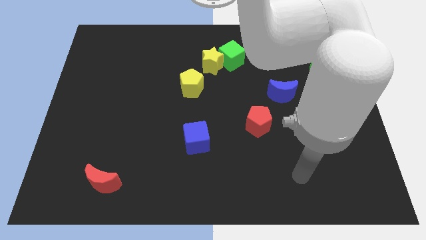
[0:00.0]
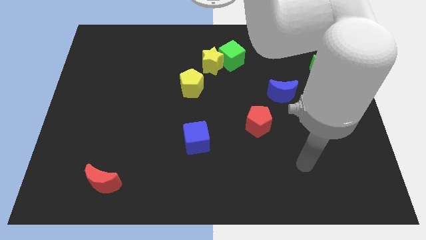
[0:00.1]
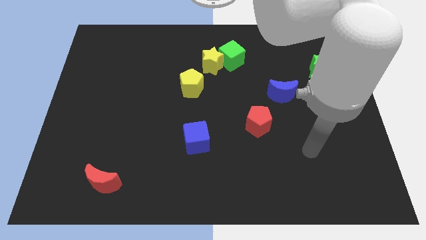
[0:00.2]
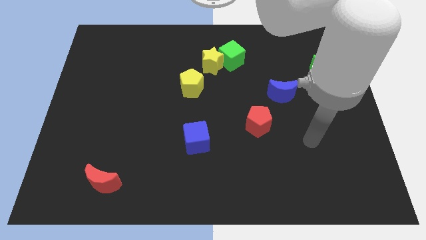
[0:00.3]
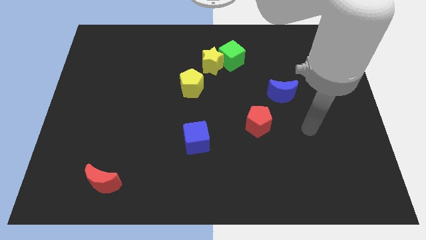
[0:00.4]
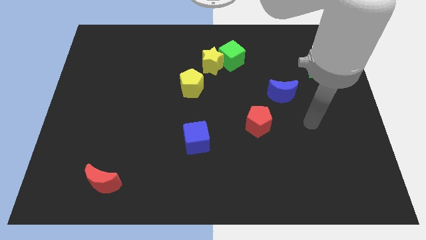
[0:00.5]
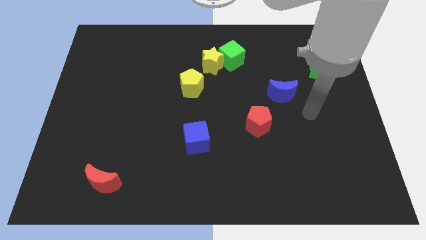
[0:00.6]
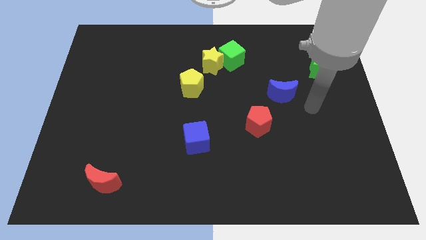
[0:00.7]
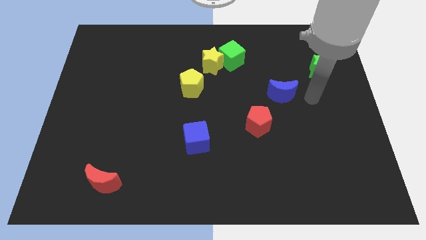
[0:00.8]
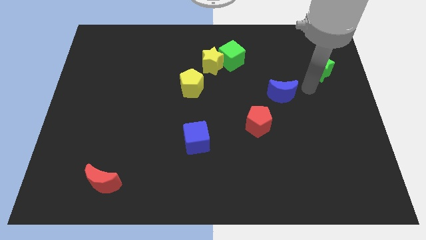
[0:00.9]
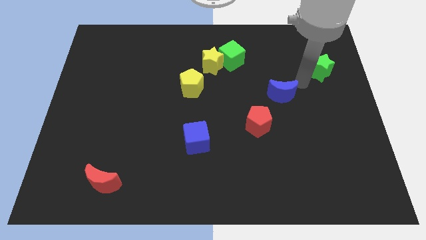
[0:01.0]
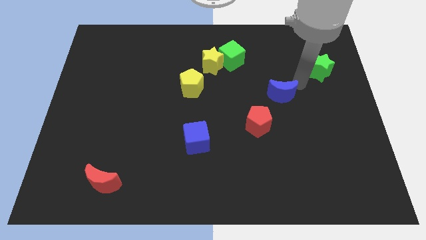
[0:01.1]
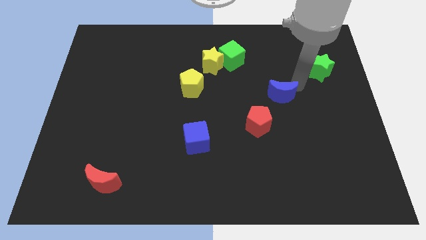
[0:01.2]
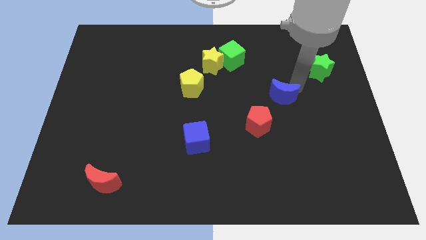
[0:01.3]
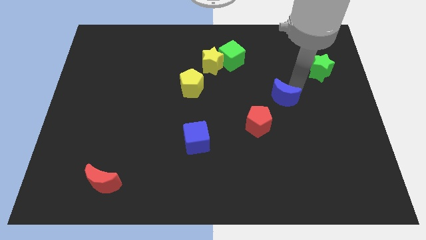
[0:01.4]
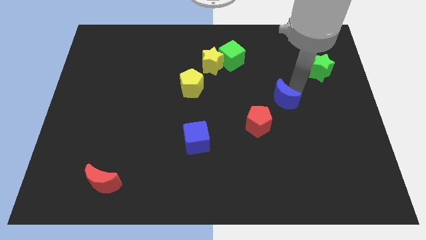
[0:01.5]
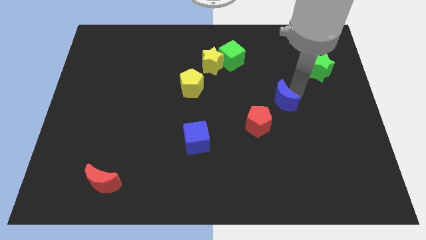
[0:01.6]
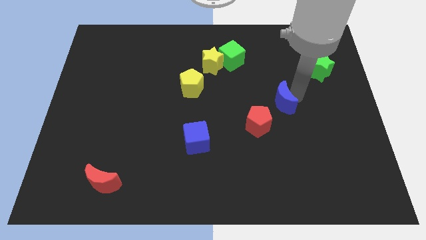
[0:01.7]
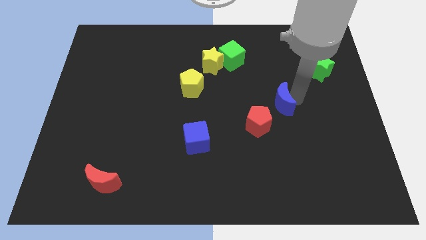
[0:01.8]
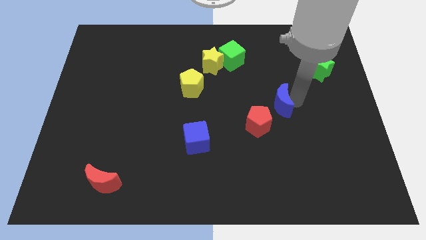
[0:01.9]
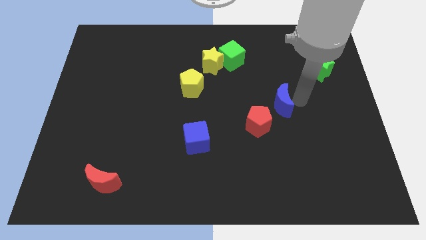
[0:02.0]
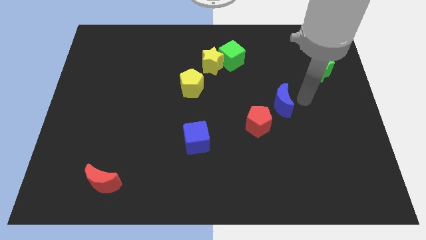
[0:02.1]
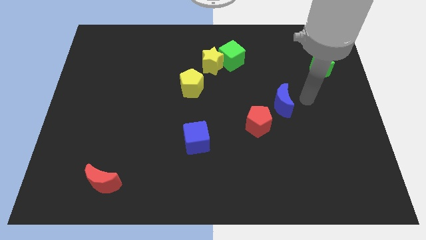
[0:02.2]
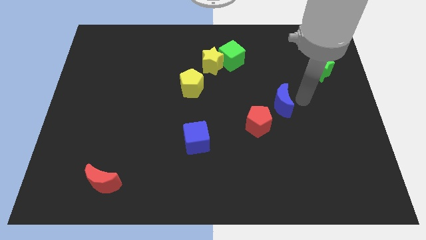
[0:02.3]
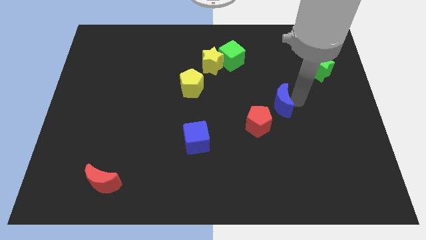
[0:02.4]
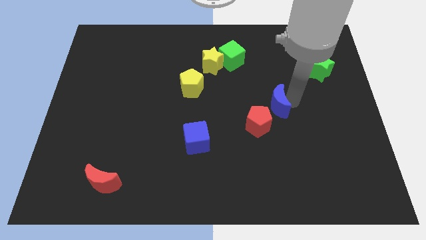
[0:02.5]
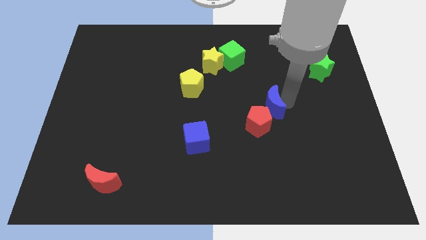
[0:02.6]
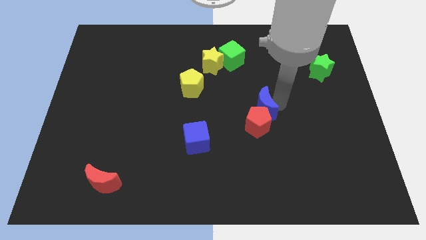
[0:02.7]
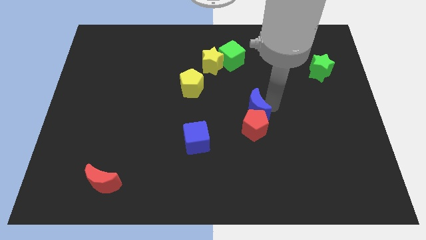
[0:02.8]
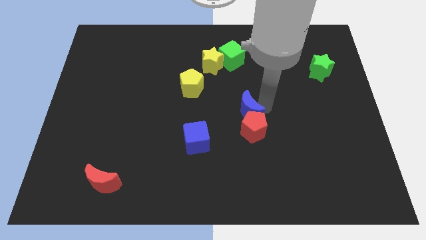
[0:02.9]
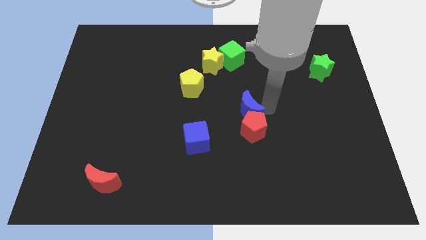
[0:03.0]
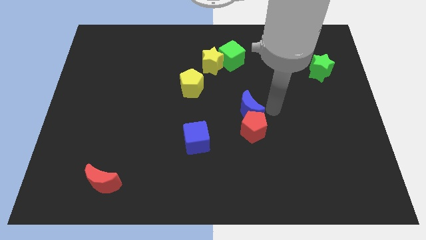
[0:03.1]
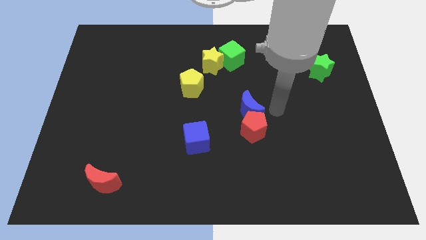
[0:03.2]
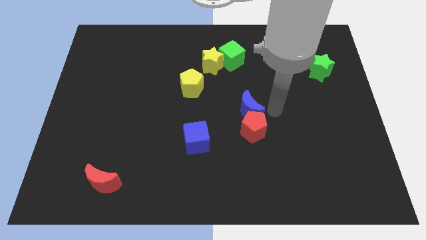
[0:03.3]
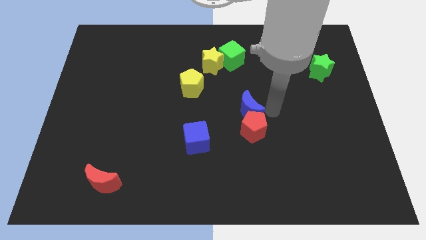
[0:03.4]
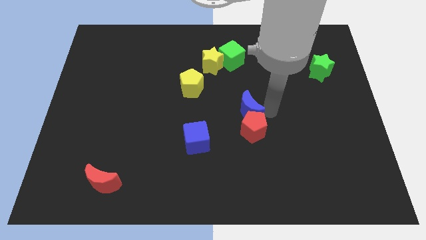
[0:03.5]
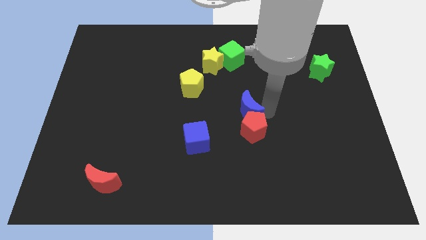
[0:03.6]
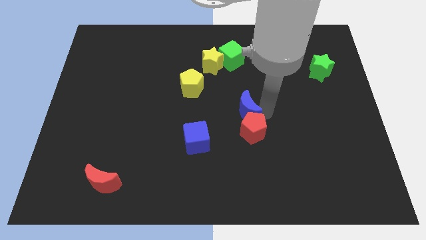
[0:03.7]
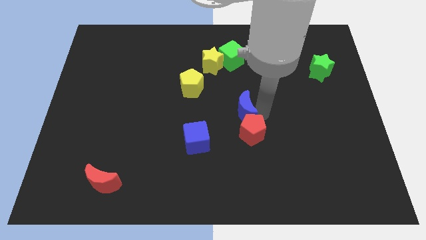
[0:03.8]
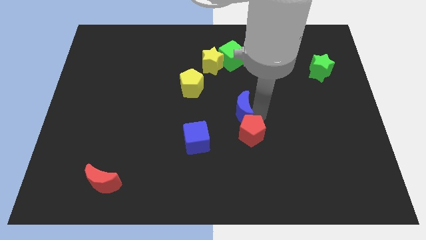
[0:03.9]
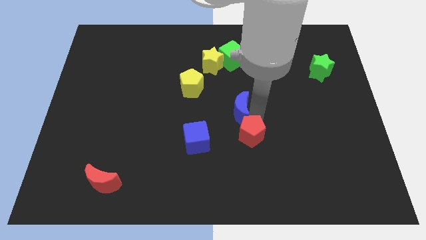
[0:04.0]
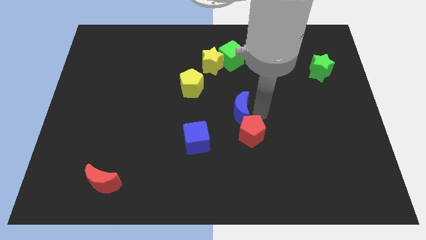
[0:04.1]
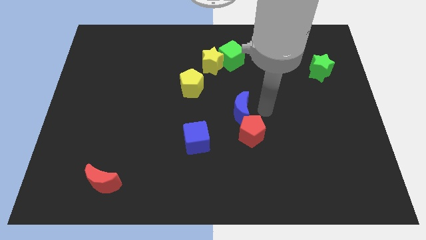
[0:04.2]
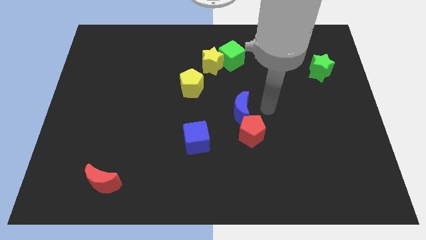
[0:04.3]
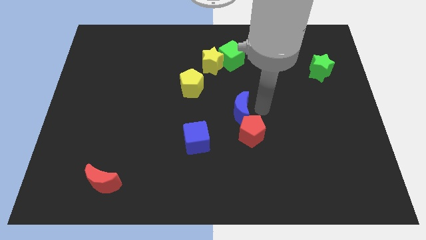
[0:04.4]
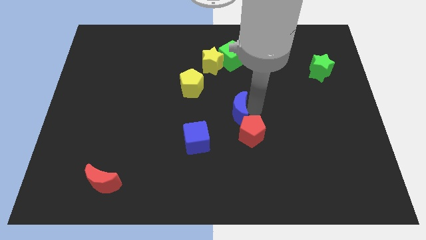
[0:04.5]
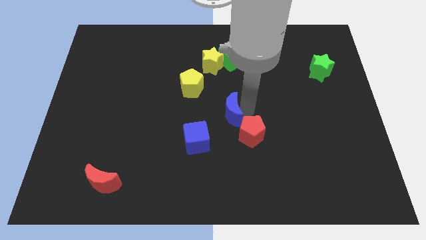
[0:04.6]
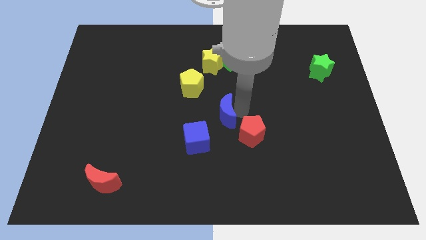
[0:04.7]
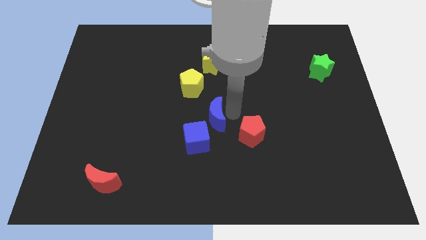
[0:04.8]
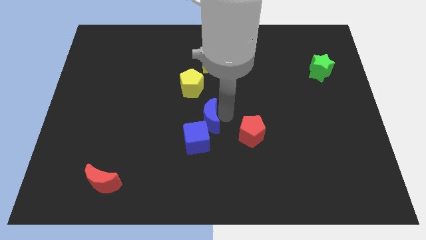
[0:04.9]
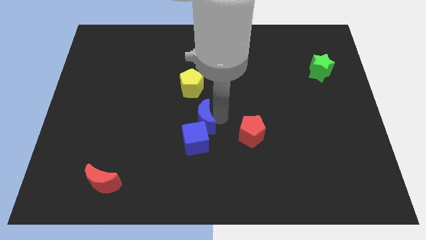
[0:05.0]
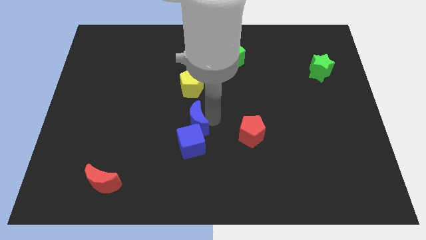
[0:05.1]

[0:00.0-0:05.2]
move the blue moon to the top left of the blue cube

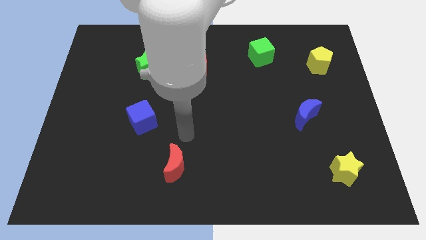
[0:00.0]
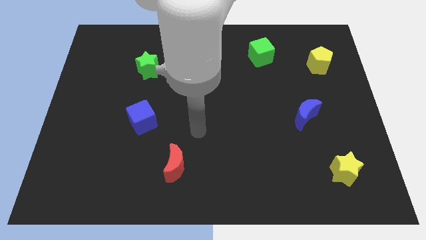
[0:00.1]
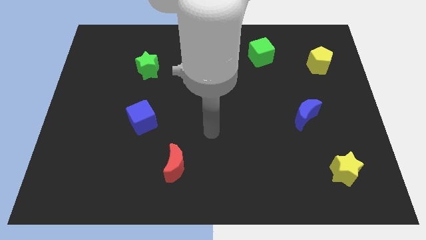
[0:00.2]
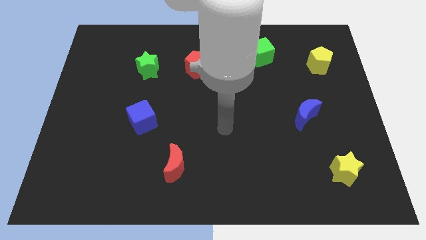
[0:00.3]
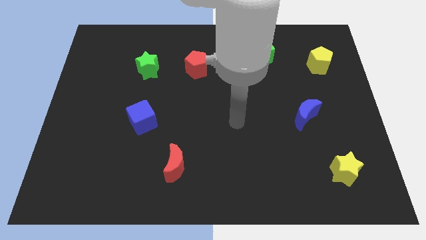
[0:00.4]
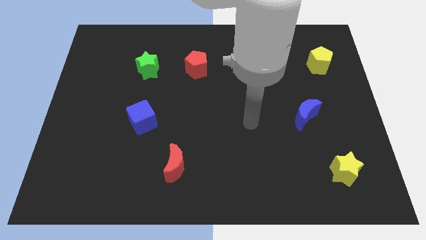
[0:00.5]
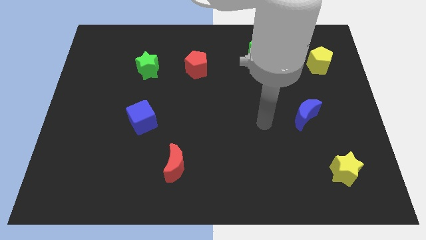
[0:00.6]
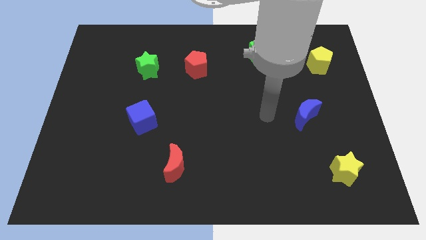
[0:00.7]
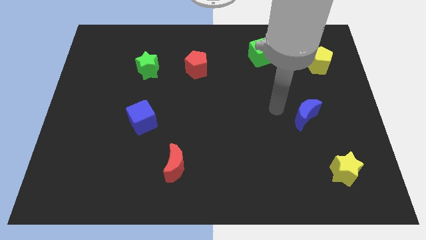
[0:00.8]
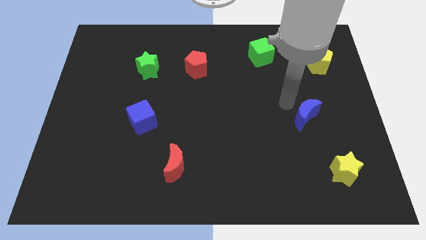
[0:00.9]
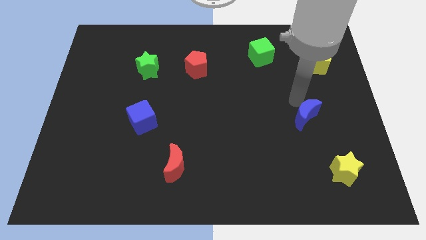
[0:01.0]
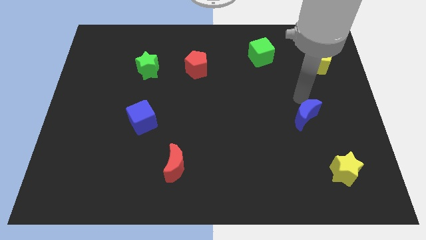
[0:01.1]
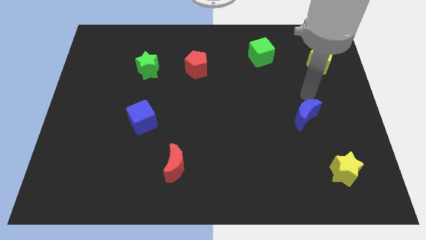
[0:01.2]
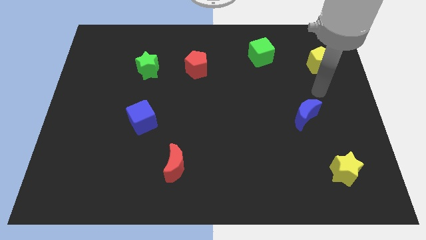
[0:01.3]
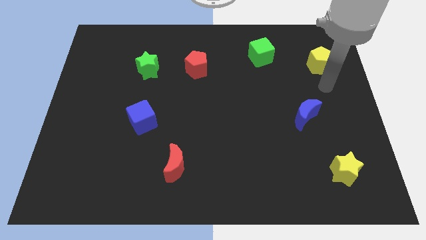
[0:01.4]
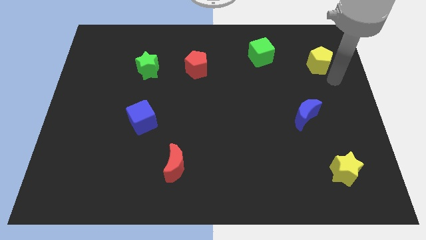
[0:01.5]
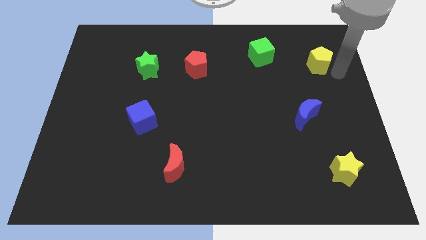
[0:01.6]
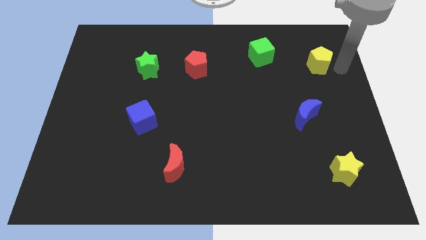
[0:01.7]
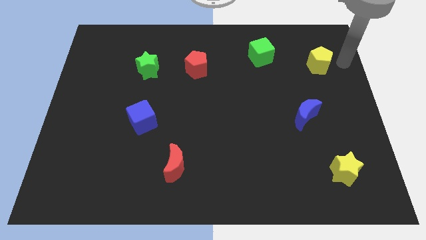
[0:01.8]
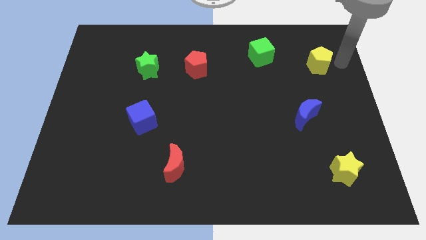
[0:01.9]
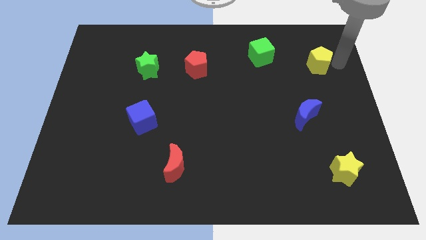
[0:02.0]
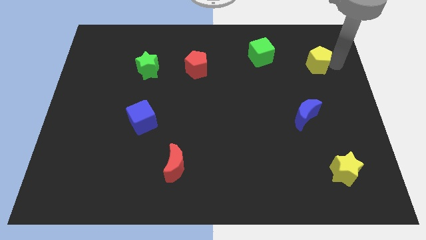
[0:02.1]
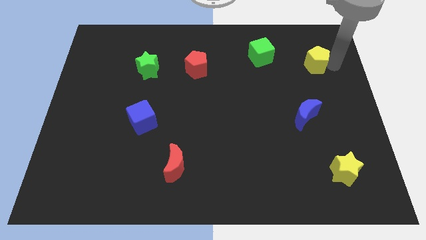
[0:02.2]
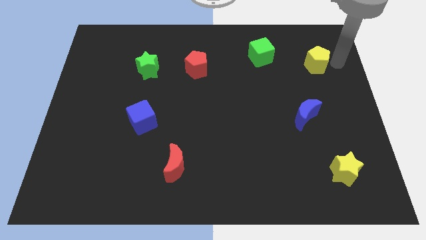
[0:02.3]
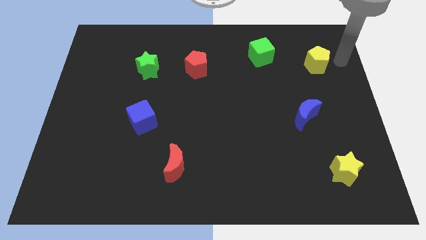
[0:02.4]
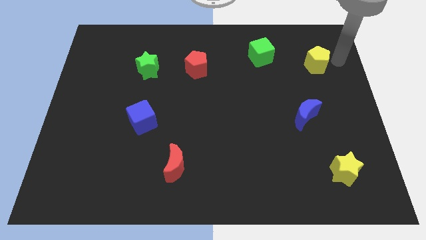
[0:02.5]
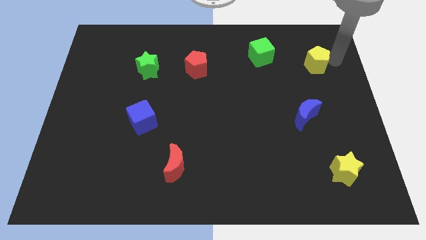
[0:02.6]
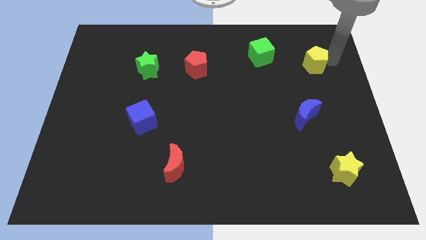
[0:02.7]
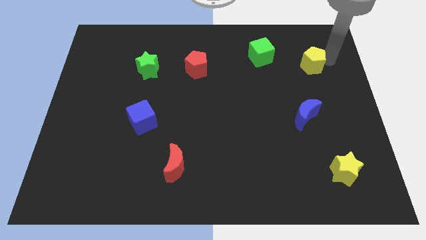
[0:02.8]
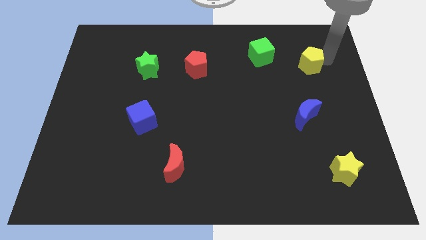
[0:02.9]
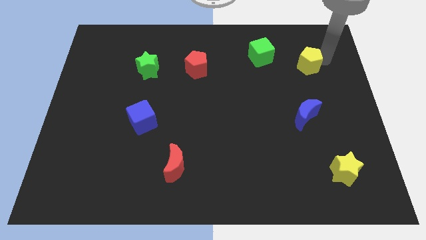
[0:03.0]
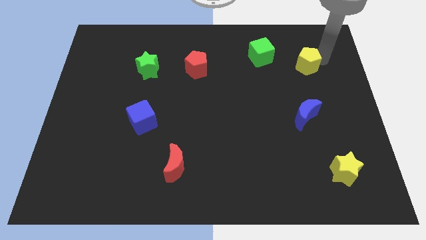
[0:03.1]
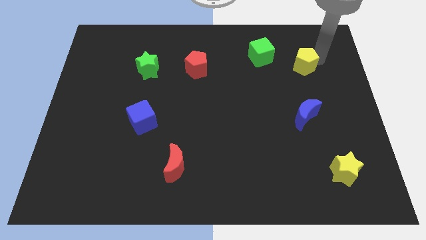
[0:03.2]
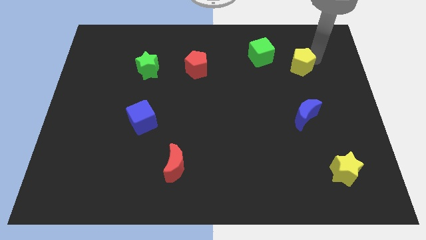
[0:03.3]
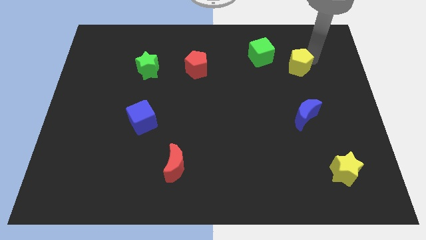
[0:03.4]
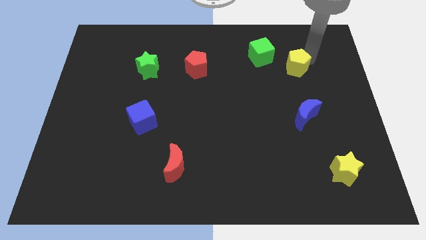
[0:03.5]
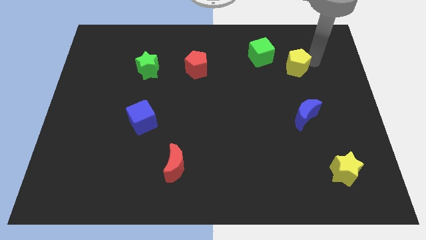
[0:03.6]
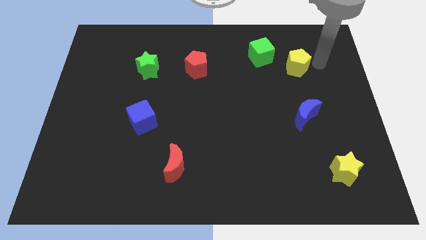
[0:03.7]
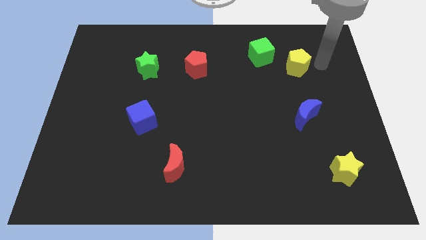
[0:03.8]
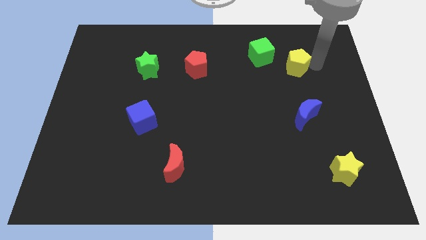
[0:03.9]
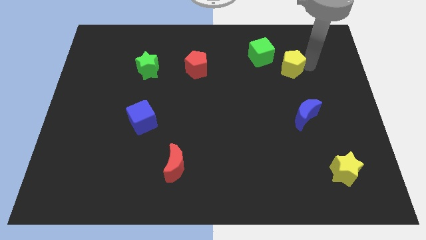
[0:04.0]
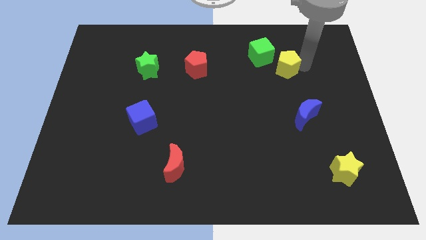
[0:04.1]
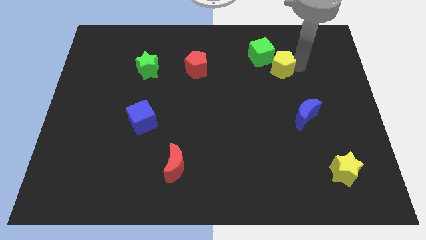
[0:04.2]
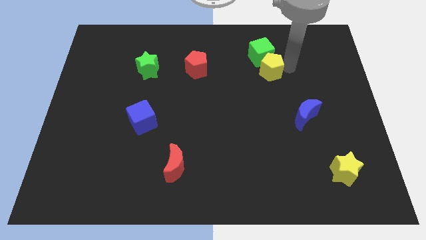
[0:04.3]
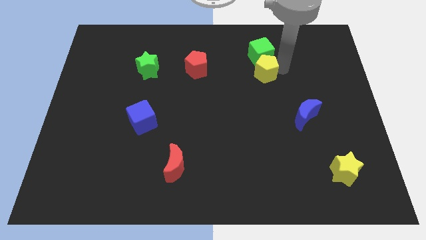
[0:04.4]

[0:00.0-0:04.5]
slide the yellow pentagon diagonally down and to the left of the green cube
